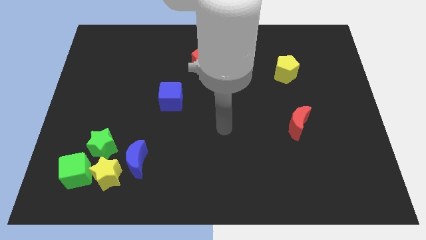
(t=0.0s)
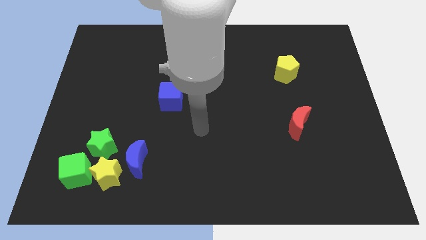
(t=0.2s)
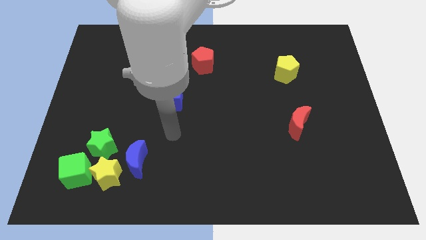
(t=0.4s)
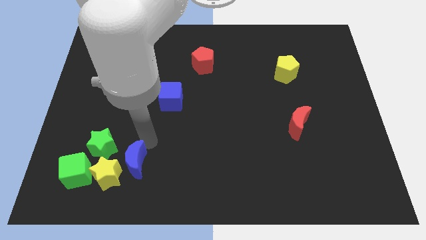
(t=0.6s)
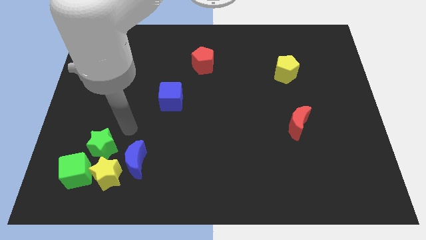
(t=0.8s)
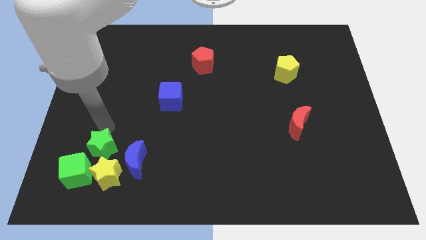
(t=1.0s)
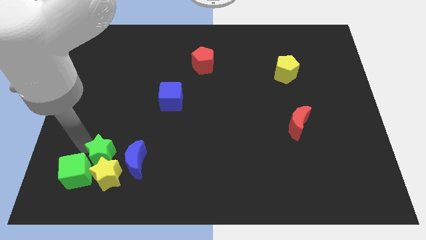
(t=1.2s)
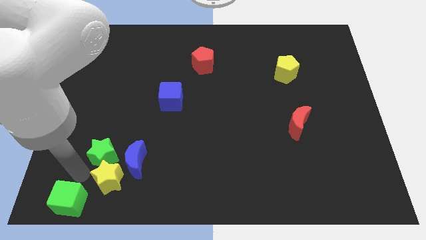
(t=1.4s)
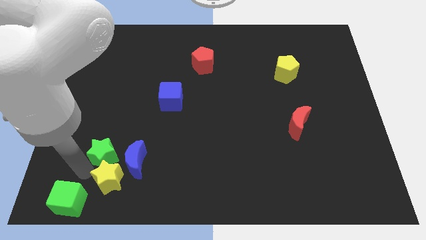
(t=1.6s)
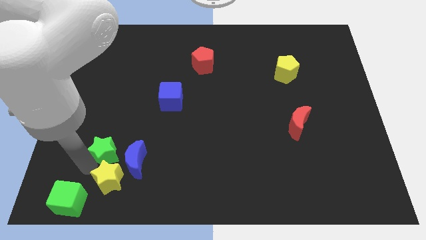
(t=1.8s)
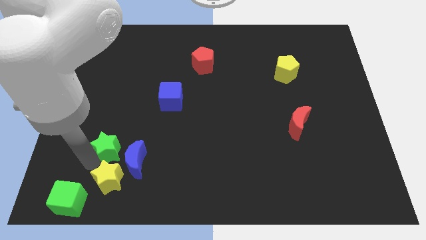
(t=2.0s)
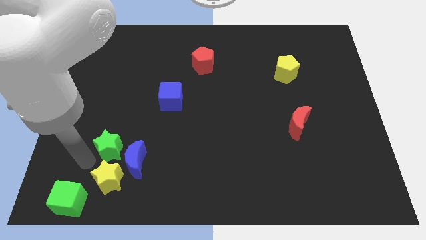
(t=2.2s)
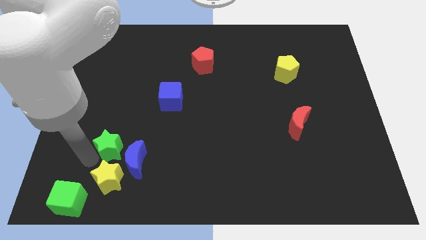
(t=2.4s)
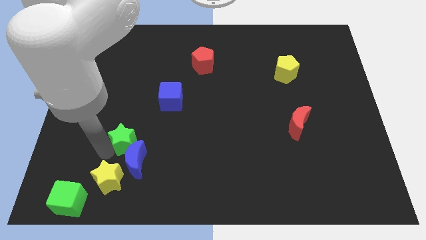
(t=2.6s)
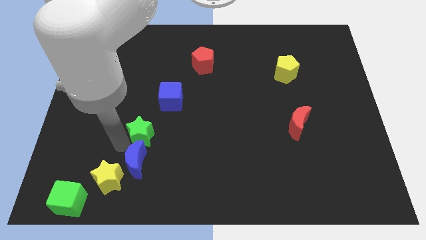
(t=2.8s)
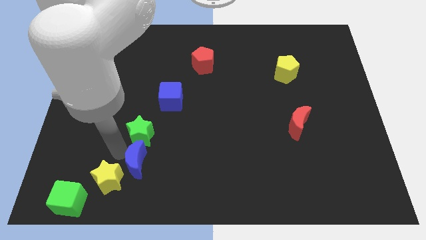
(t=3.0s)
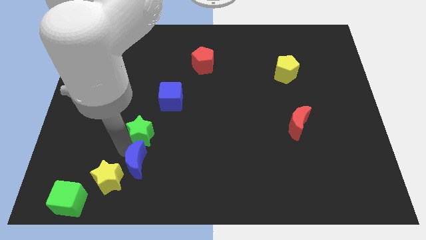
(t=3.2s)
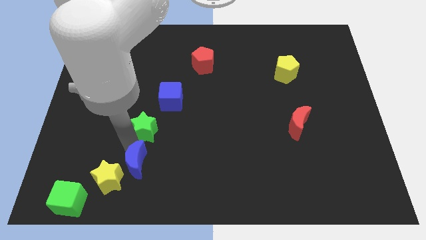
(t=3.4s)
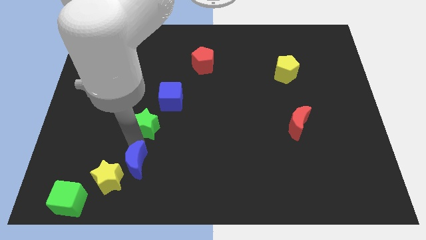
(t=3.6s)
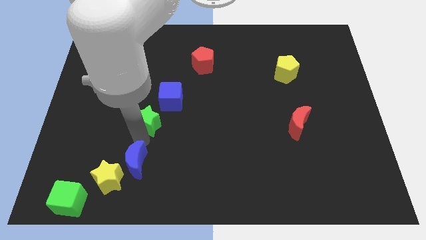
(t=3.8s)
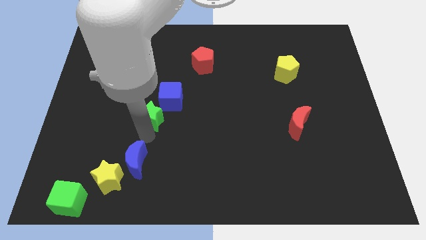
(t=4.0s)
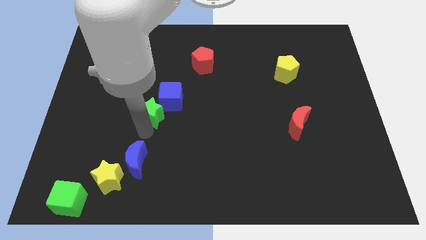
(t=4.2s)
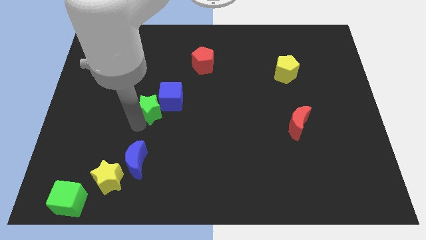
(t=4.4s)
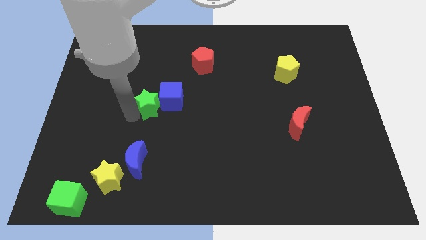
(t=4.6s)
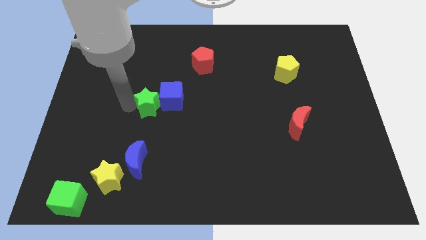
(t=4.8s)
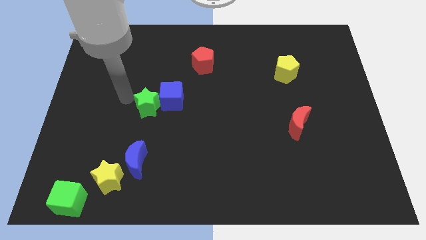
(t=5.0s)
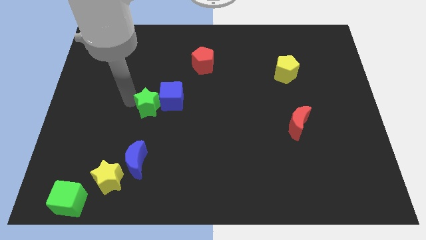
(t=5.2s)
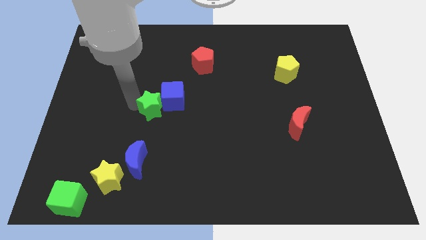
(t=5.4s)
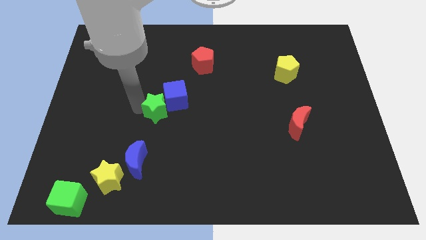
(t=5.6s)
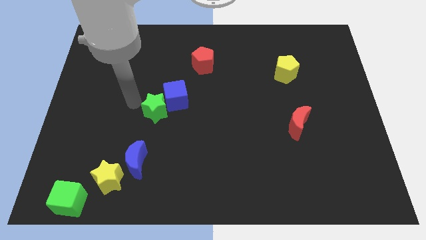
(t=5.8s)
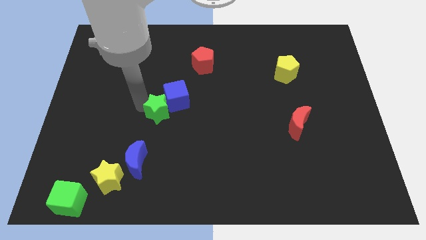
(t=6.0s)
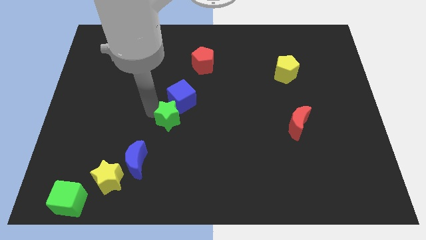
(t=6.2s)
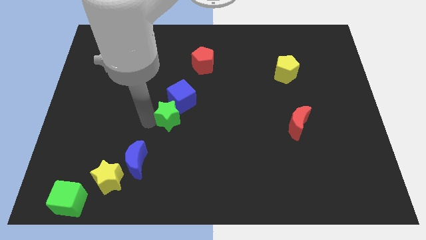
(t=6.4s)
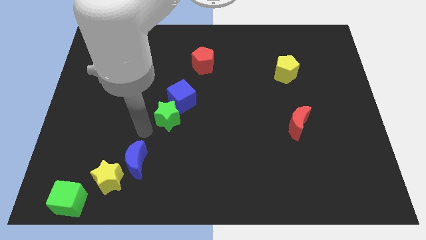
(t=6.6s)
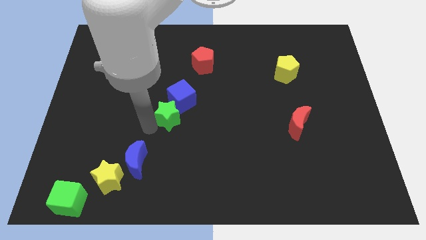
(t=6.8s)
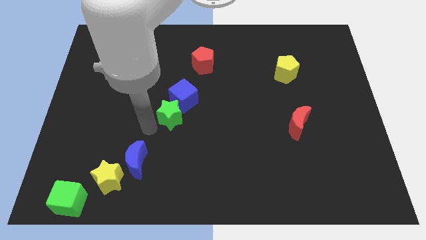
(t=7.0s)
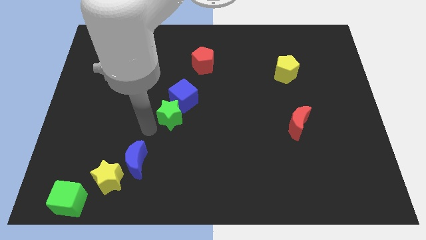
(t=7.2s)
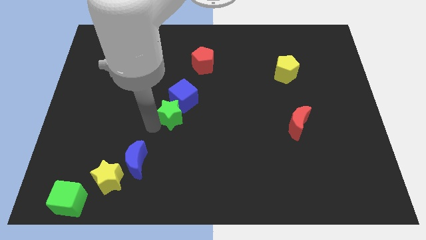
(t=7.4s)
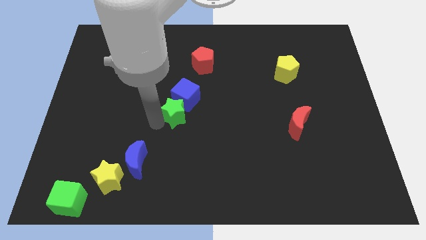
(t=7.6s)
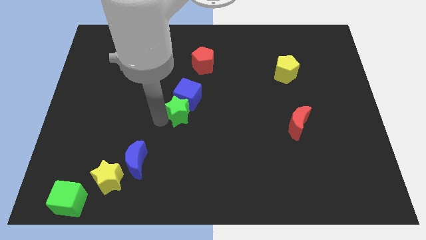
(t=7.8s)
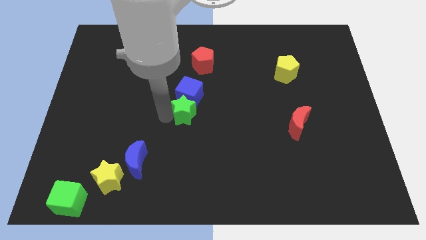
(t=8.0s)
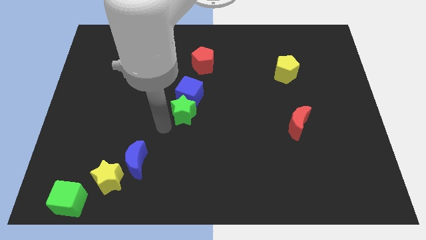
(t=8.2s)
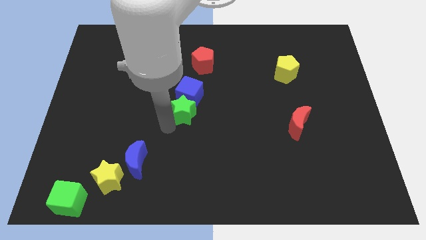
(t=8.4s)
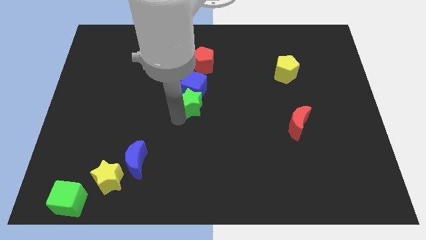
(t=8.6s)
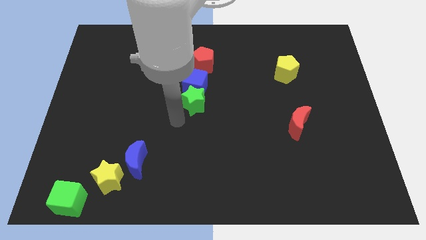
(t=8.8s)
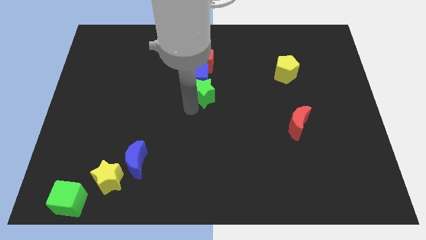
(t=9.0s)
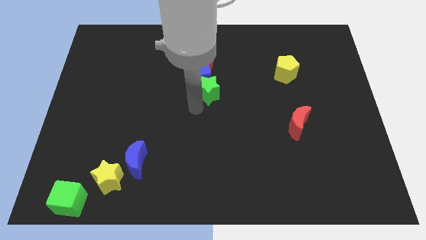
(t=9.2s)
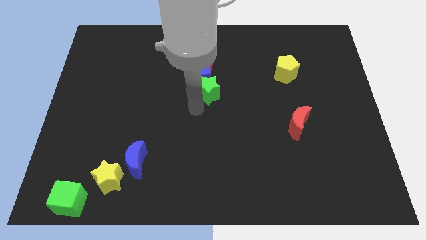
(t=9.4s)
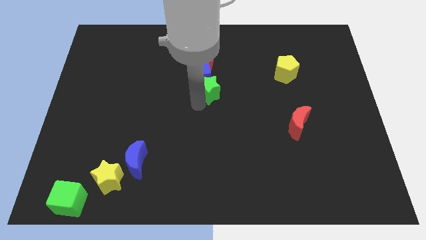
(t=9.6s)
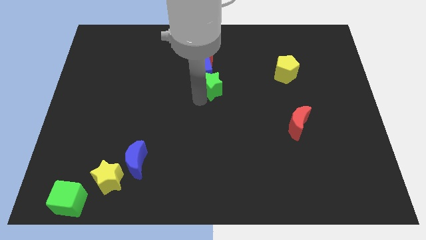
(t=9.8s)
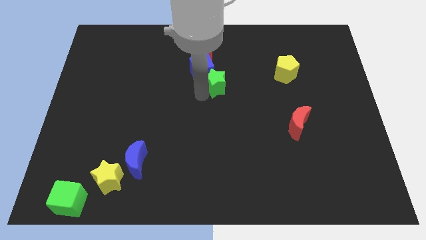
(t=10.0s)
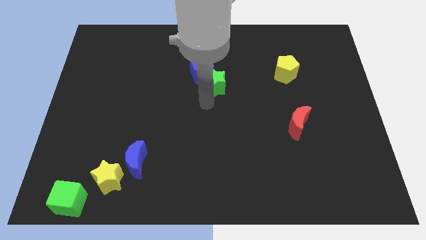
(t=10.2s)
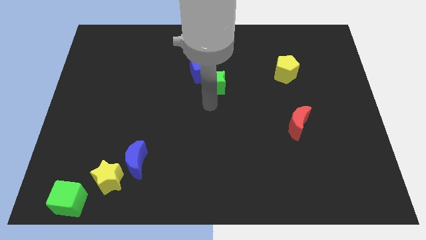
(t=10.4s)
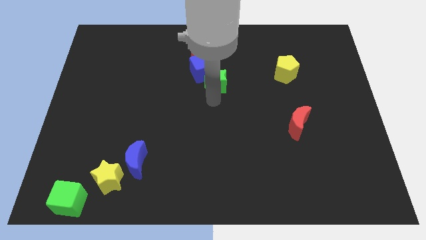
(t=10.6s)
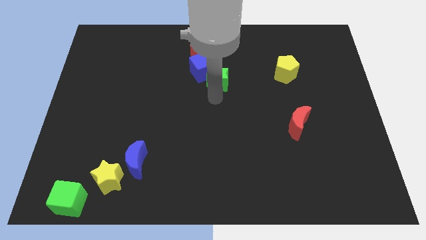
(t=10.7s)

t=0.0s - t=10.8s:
push the green star diagonally down and to the right of the red pentagon
